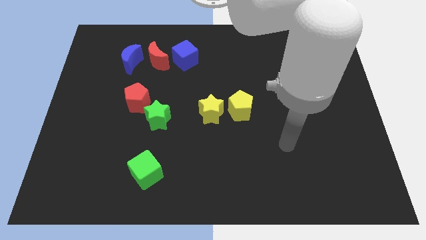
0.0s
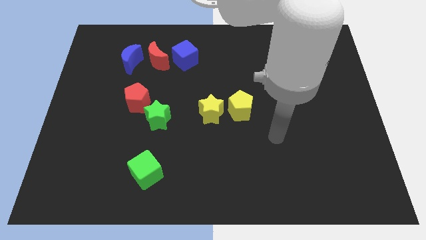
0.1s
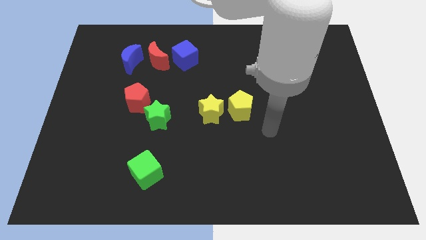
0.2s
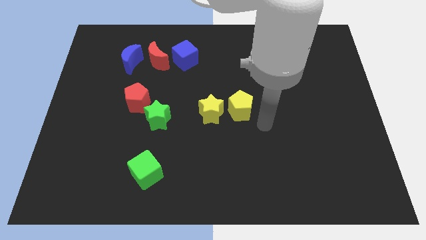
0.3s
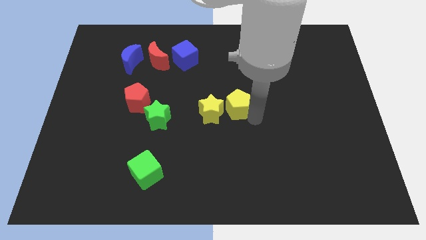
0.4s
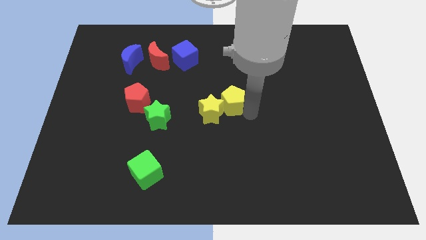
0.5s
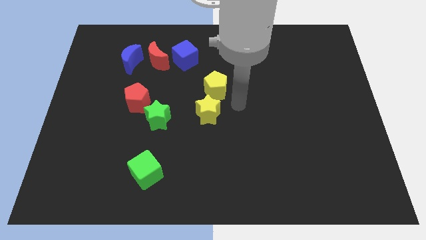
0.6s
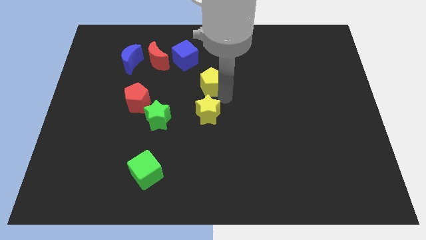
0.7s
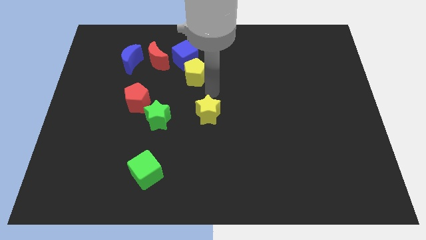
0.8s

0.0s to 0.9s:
separate the yellow star from the yellow pentagon

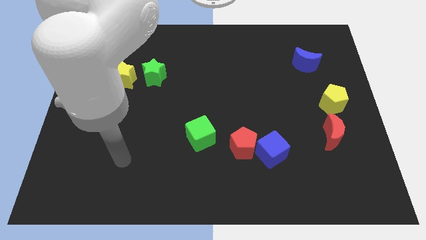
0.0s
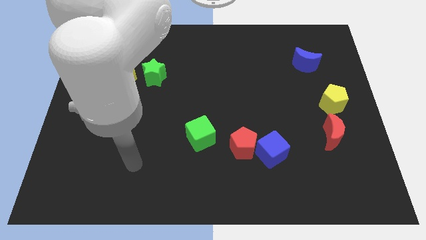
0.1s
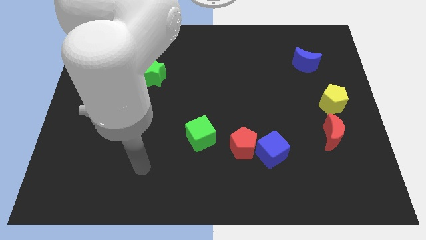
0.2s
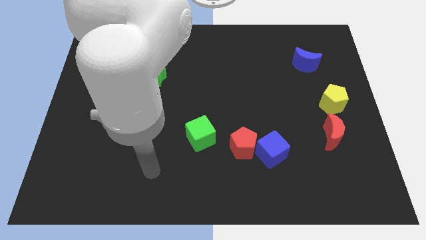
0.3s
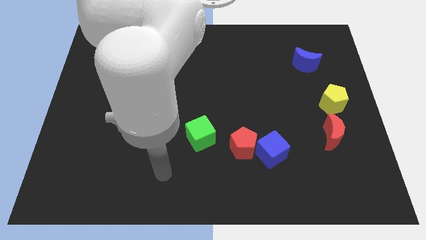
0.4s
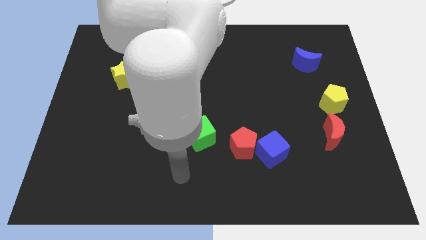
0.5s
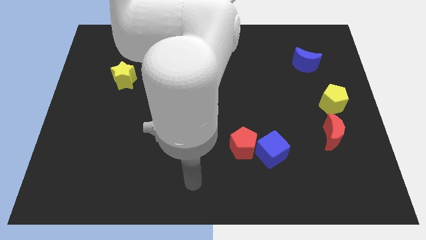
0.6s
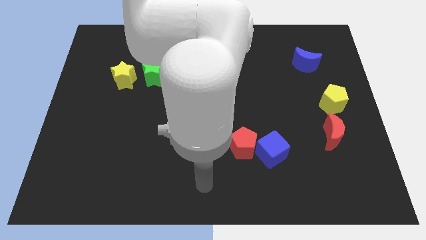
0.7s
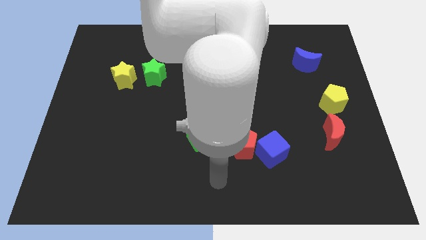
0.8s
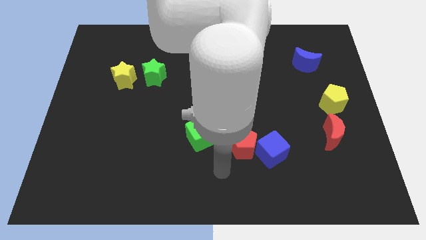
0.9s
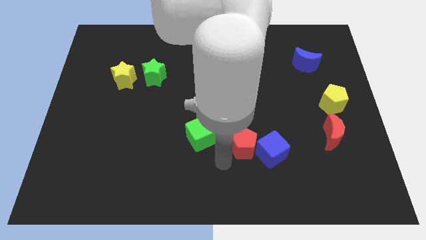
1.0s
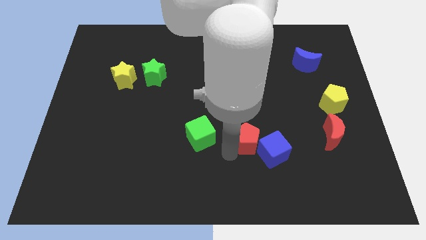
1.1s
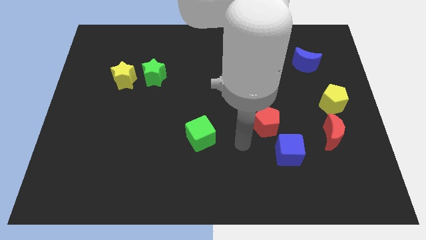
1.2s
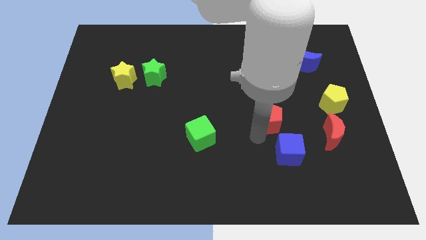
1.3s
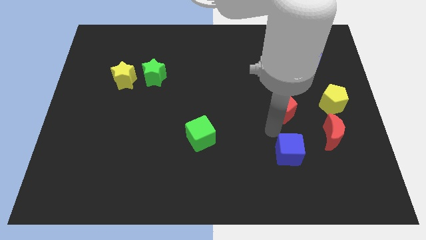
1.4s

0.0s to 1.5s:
separate the blue cube from the red pentagon

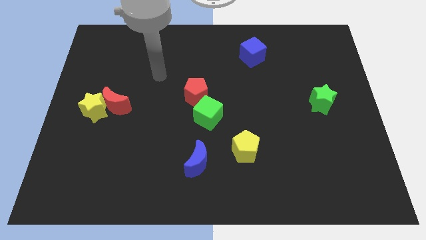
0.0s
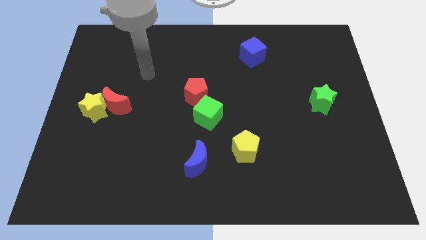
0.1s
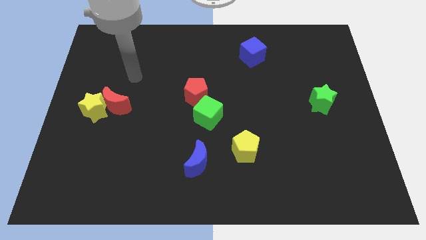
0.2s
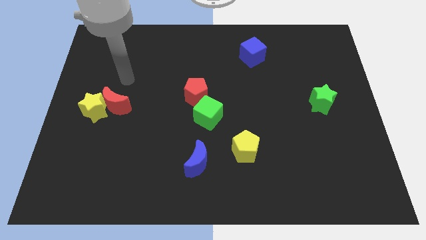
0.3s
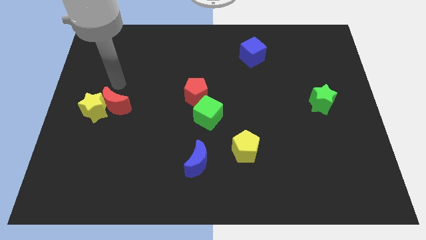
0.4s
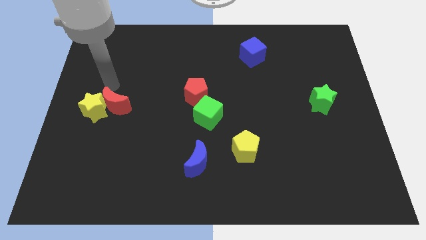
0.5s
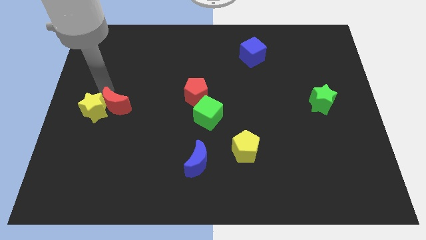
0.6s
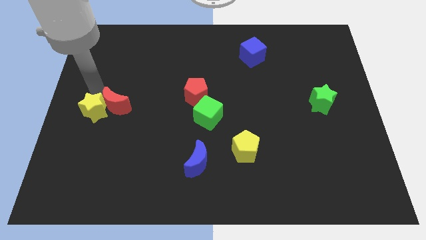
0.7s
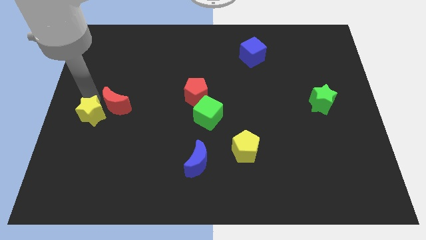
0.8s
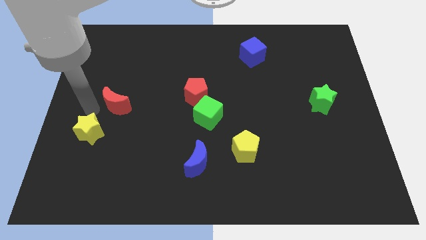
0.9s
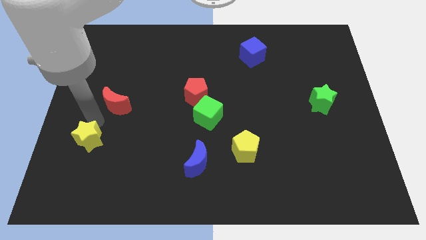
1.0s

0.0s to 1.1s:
move the red moon away from the yellow star

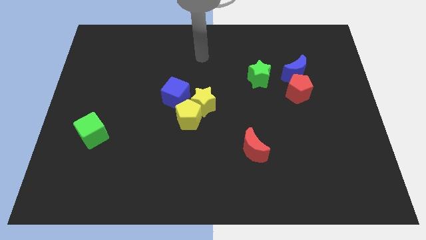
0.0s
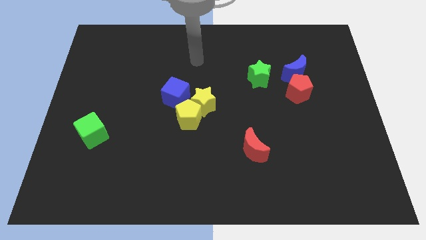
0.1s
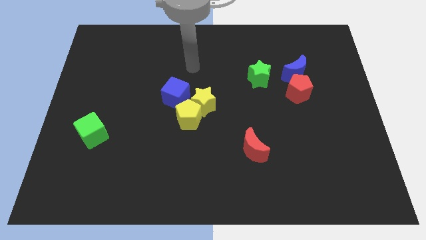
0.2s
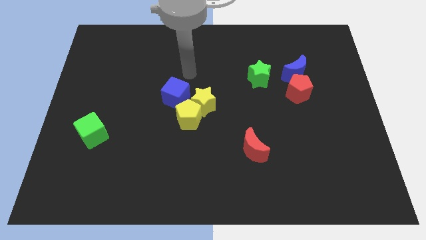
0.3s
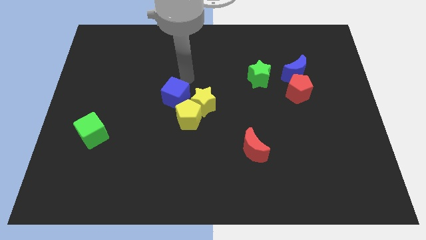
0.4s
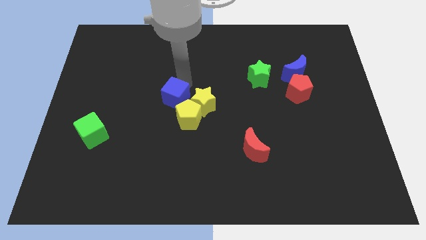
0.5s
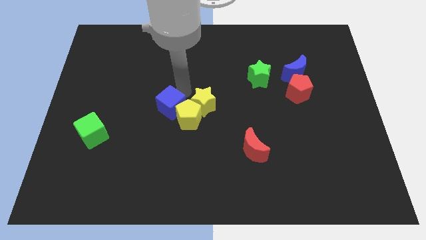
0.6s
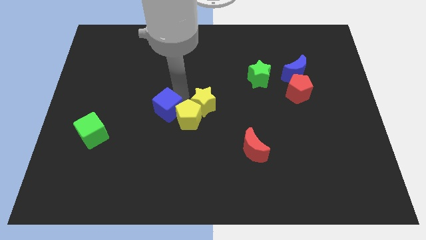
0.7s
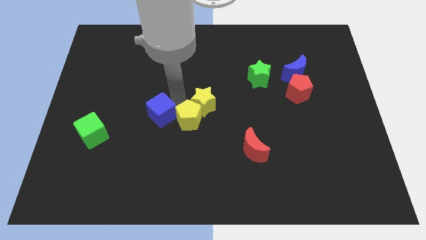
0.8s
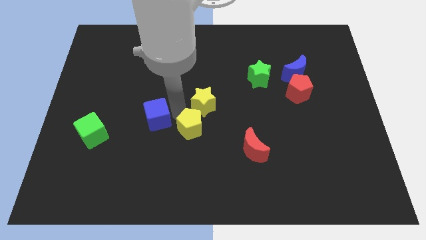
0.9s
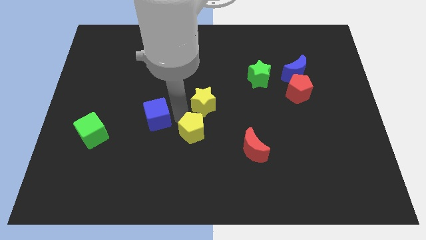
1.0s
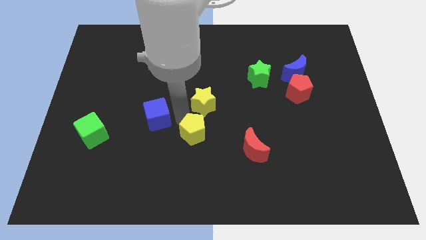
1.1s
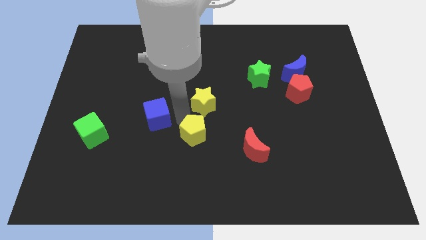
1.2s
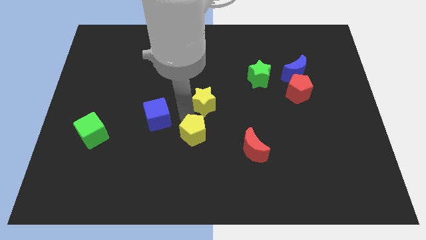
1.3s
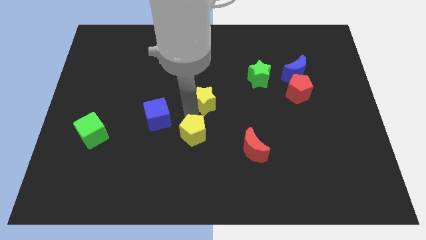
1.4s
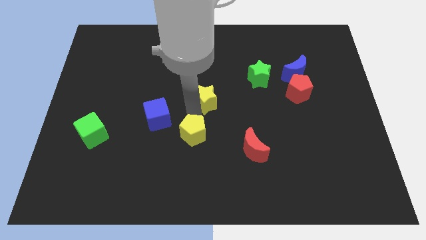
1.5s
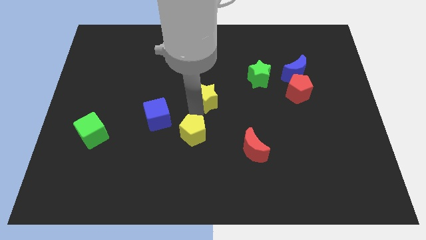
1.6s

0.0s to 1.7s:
move the yellow star away from the yellow pentagon and blue cube

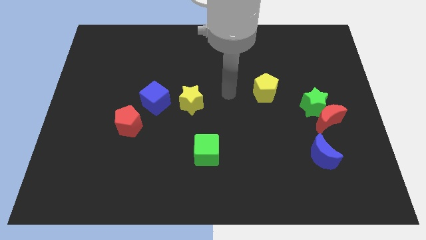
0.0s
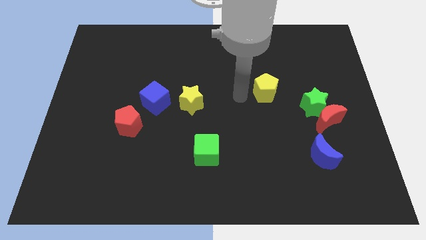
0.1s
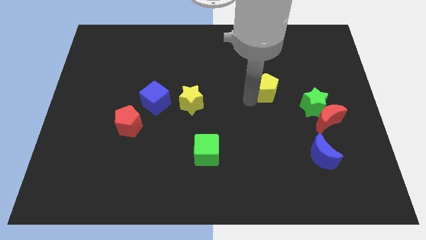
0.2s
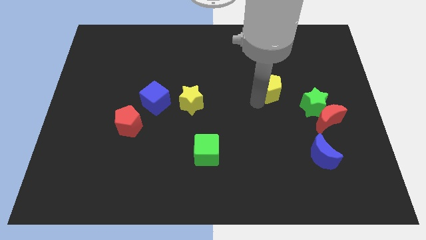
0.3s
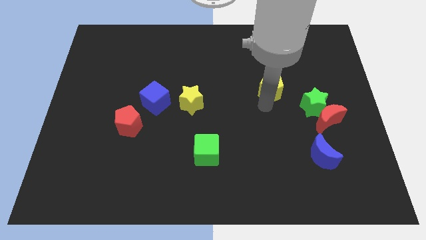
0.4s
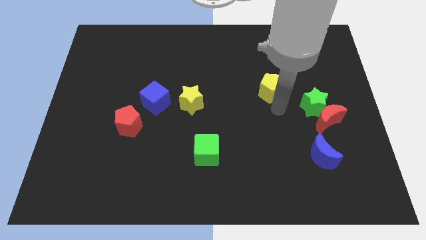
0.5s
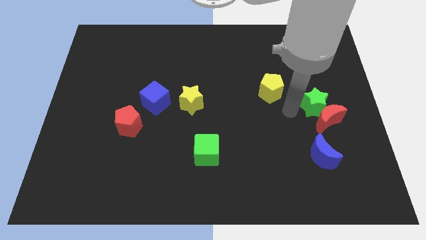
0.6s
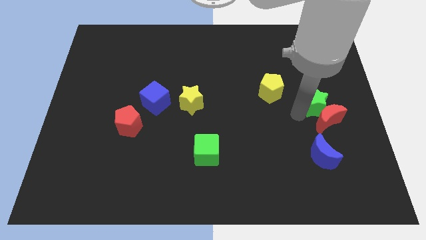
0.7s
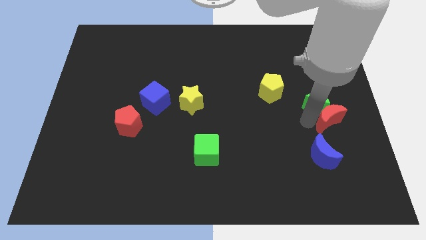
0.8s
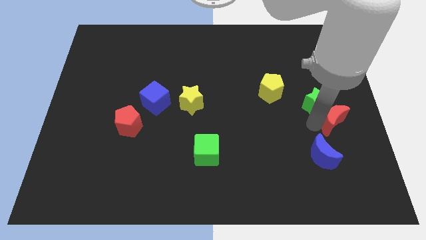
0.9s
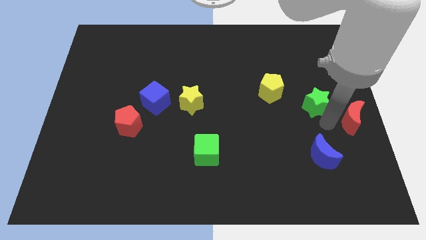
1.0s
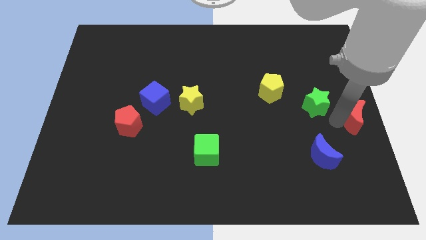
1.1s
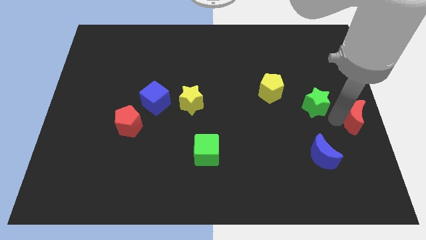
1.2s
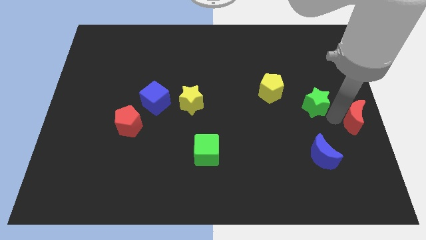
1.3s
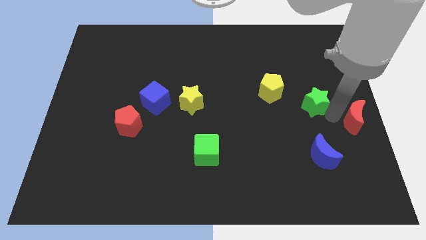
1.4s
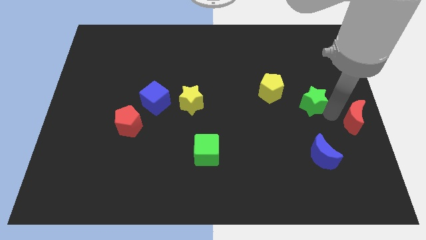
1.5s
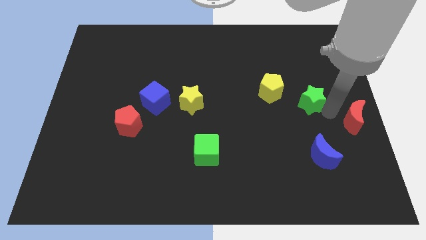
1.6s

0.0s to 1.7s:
pull the green star apart from the red moon

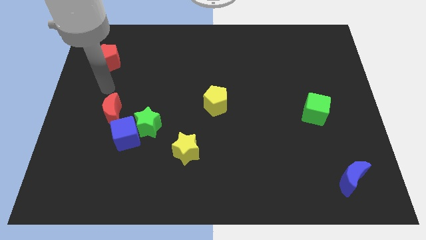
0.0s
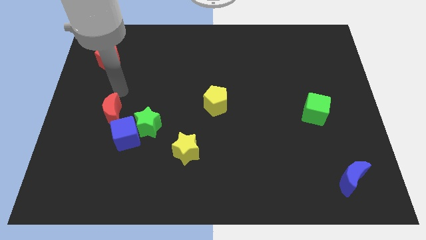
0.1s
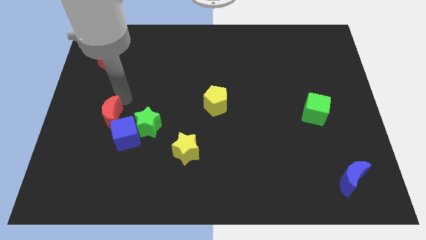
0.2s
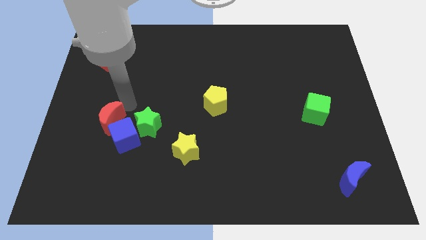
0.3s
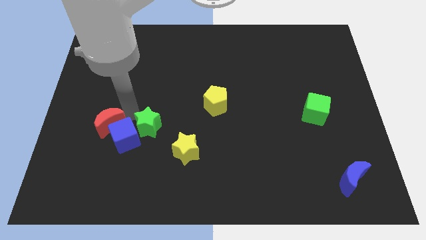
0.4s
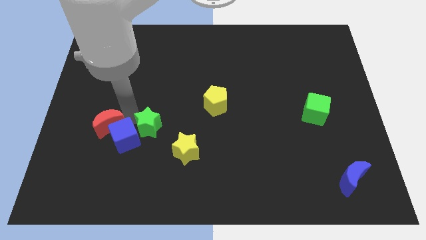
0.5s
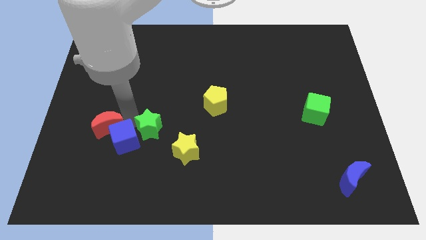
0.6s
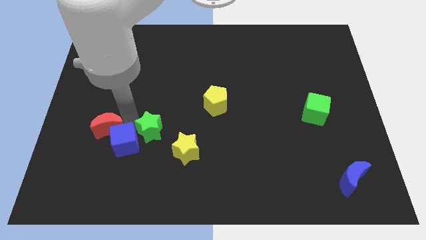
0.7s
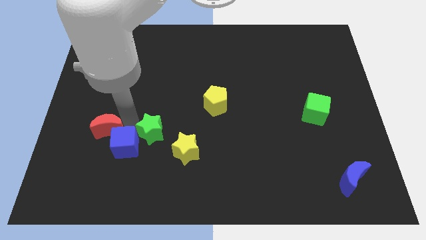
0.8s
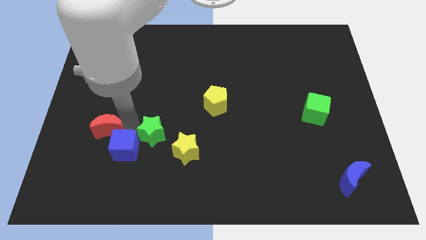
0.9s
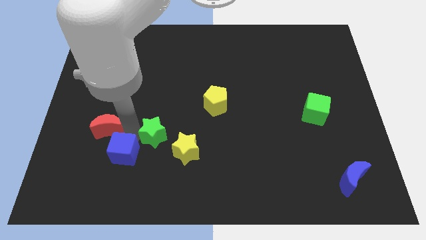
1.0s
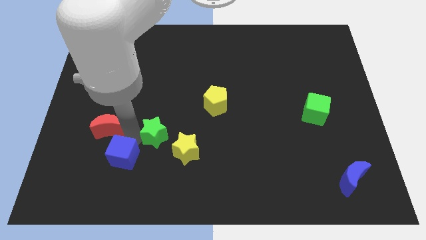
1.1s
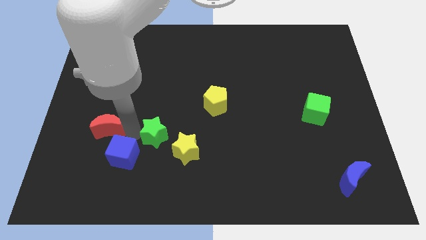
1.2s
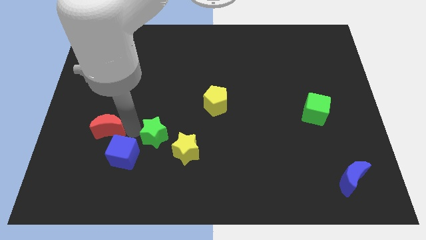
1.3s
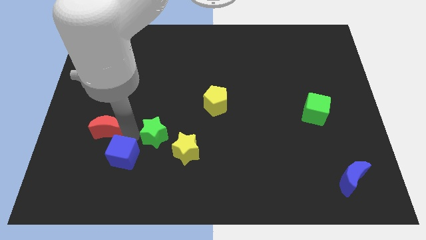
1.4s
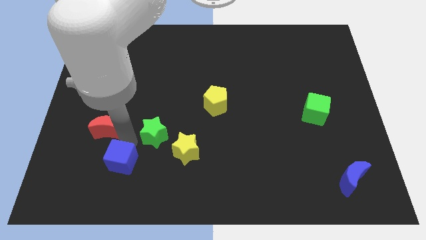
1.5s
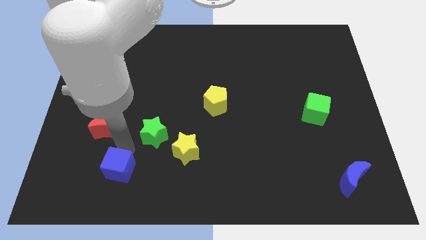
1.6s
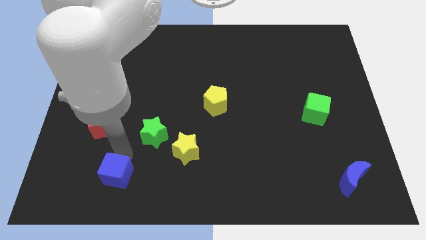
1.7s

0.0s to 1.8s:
pull the blue cube apart from the green star and red moon

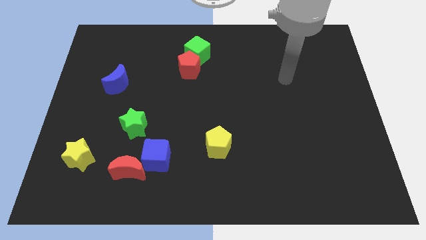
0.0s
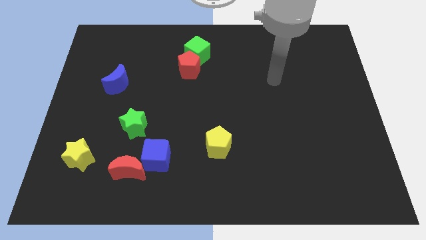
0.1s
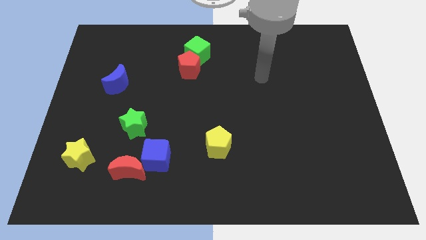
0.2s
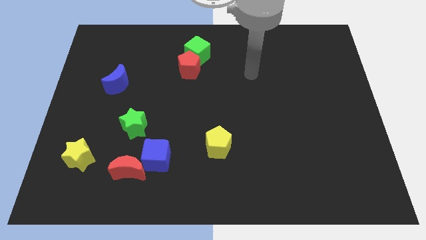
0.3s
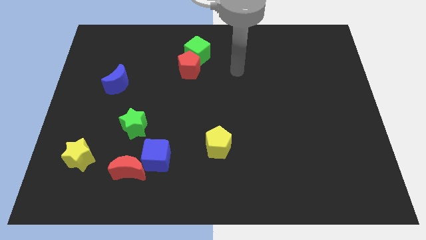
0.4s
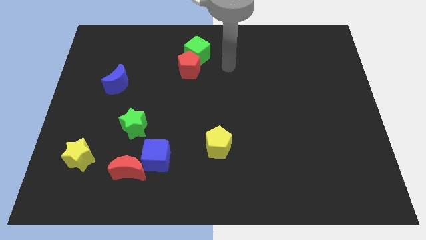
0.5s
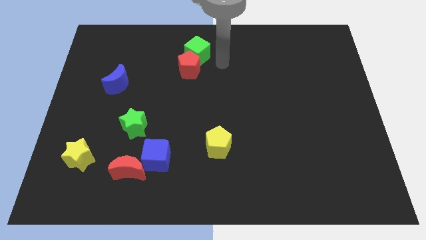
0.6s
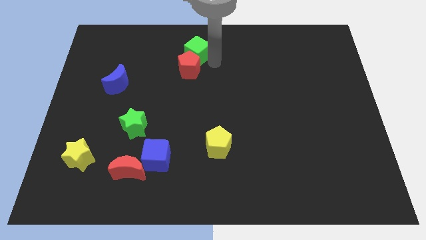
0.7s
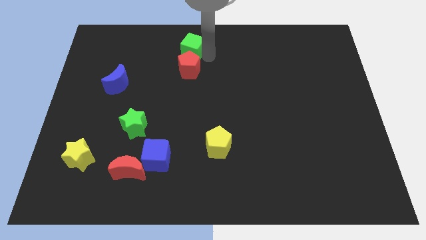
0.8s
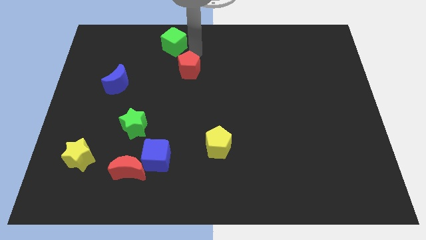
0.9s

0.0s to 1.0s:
move the red pentagon away from the green cube
